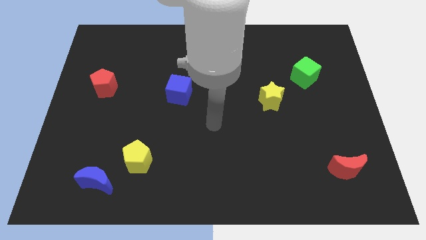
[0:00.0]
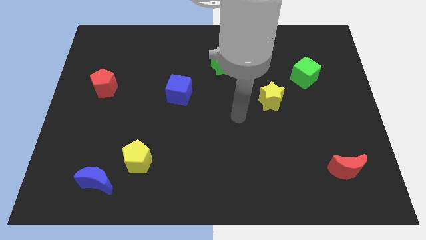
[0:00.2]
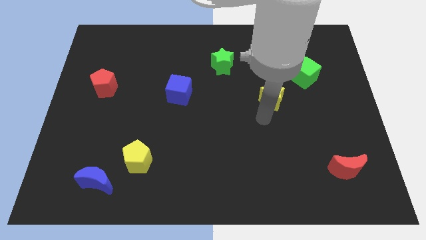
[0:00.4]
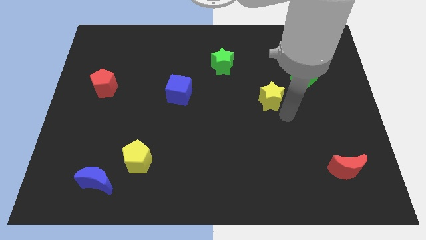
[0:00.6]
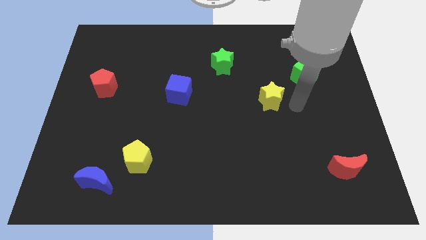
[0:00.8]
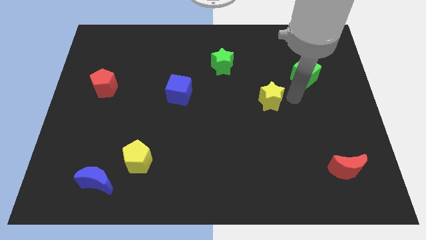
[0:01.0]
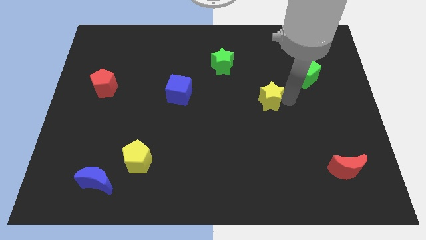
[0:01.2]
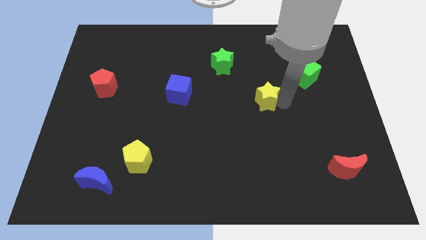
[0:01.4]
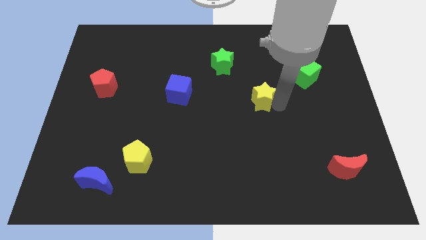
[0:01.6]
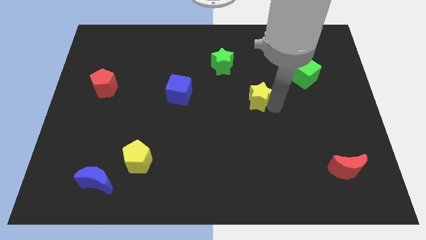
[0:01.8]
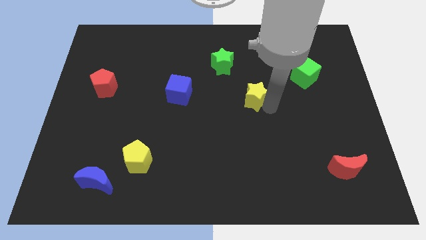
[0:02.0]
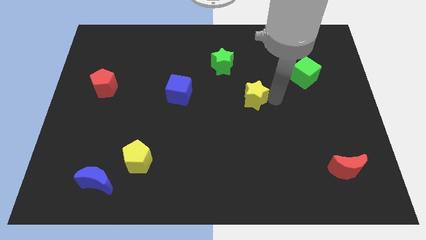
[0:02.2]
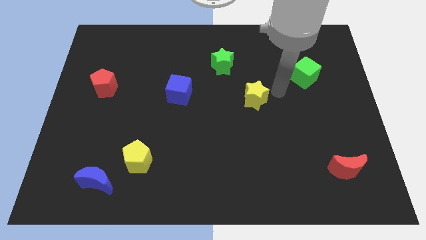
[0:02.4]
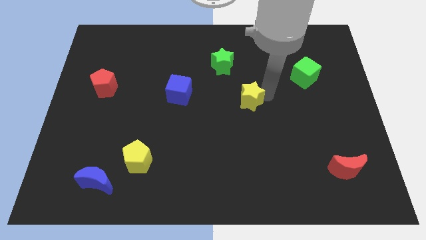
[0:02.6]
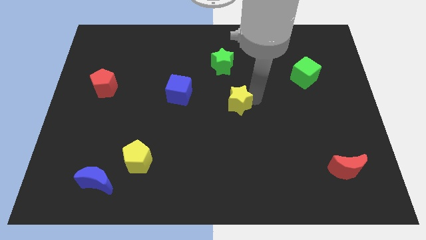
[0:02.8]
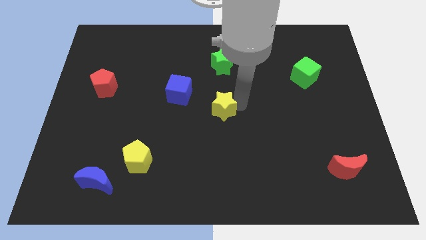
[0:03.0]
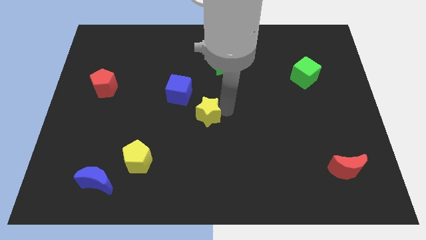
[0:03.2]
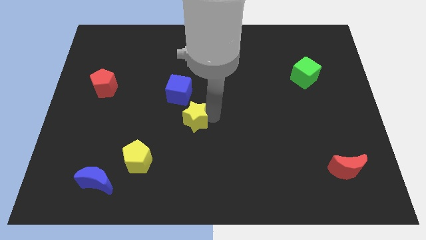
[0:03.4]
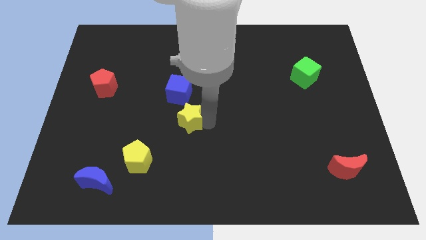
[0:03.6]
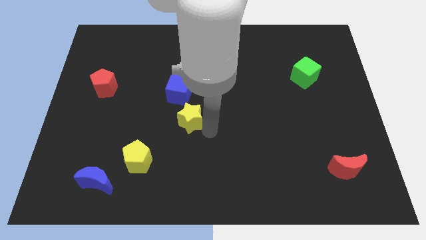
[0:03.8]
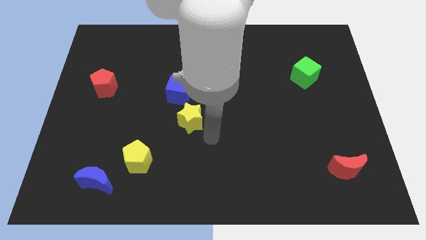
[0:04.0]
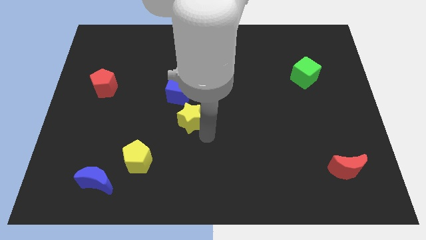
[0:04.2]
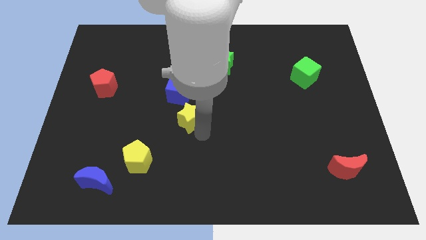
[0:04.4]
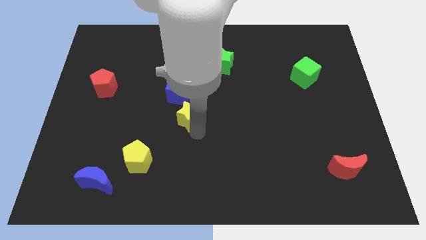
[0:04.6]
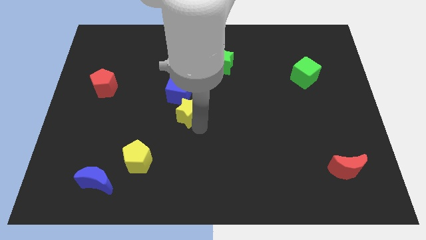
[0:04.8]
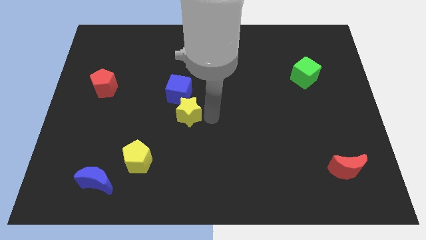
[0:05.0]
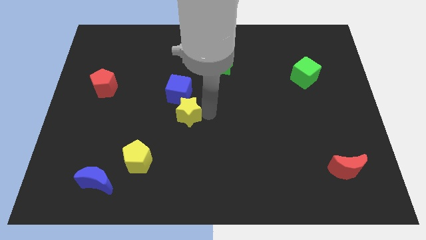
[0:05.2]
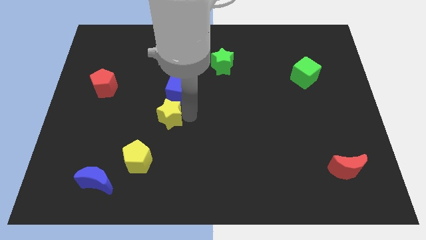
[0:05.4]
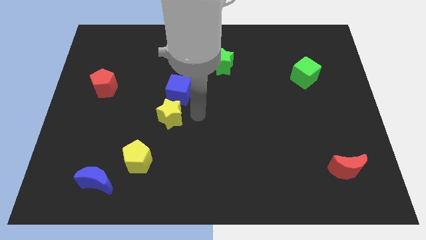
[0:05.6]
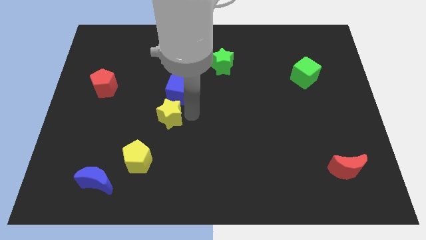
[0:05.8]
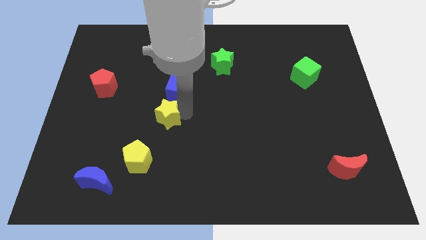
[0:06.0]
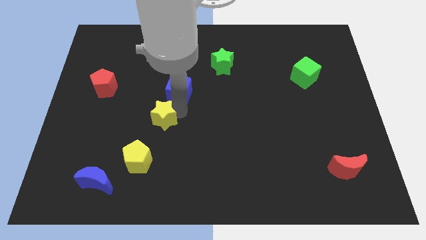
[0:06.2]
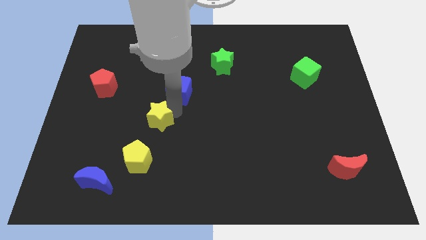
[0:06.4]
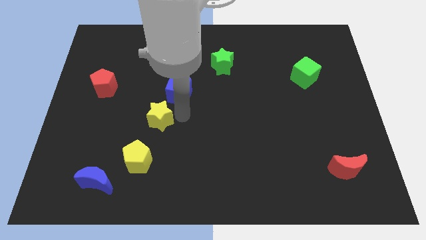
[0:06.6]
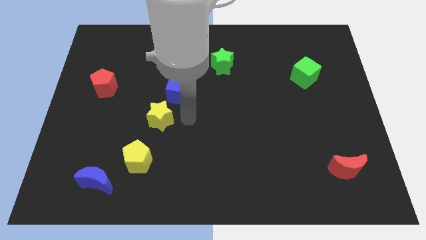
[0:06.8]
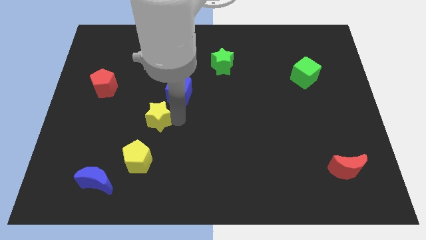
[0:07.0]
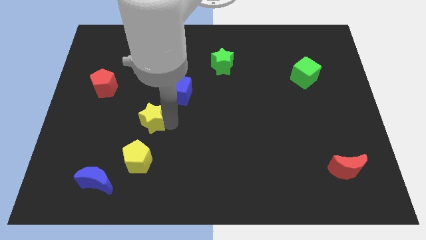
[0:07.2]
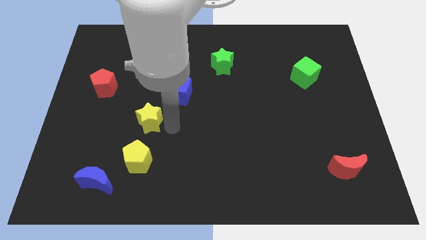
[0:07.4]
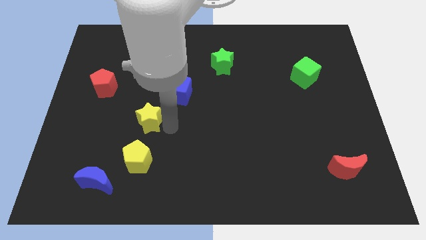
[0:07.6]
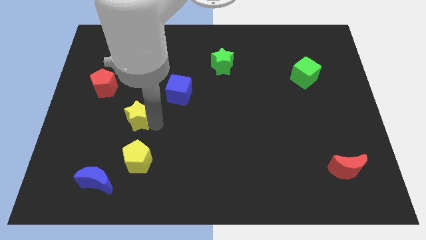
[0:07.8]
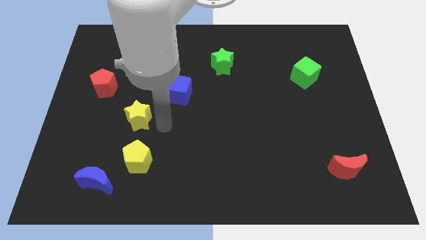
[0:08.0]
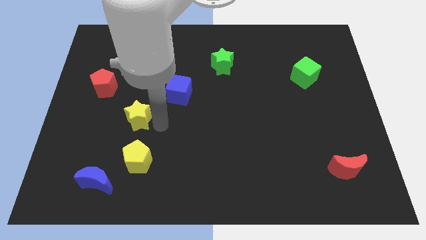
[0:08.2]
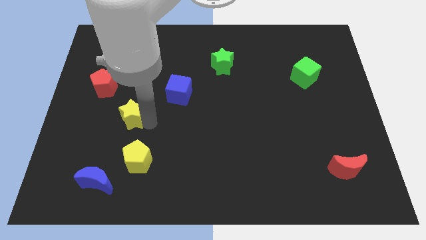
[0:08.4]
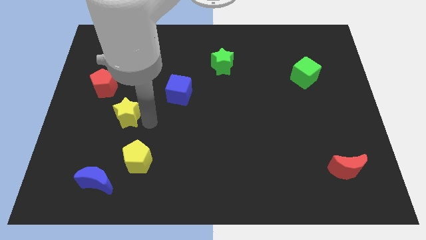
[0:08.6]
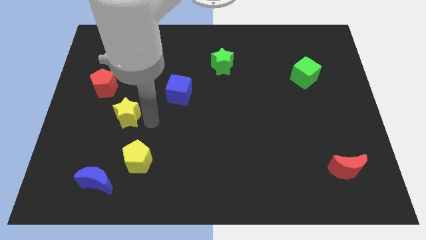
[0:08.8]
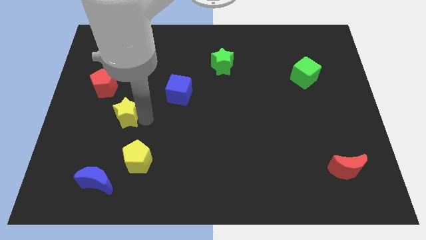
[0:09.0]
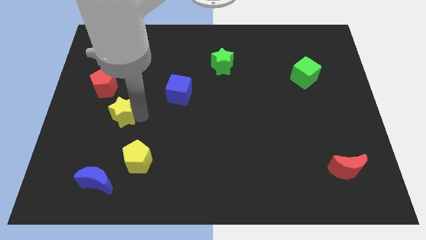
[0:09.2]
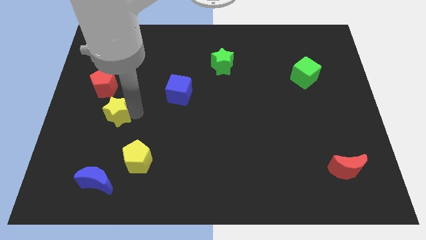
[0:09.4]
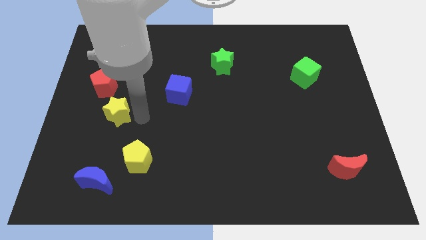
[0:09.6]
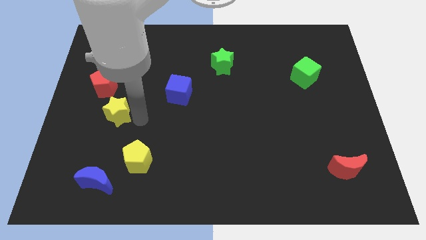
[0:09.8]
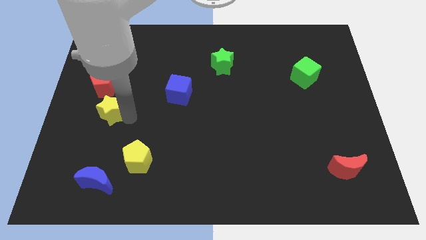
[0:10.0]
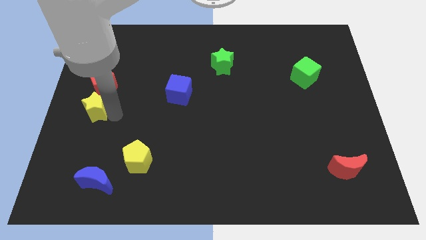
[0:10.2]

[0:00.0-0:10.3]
put the yellow star to the left side of the board

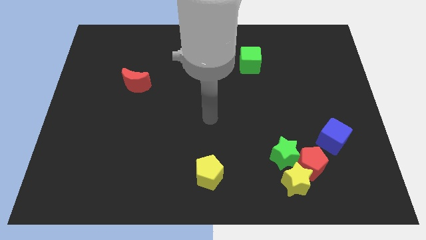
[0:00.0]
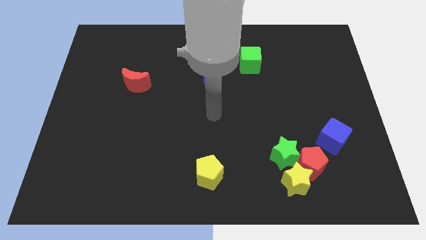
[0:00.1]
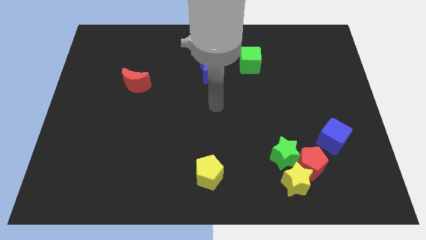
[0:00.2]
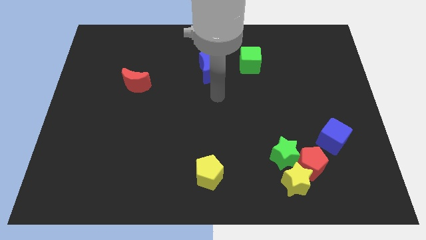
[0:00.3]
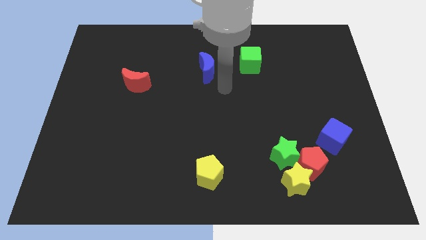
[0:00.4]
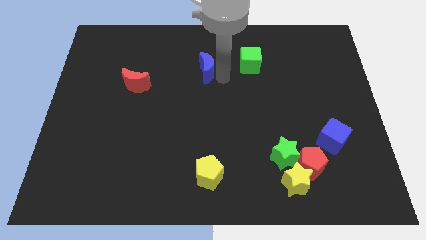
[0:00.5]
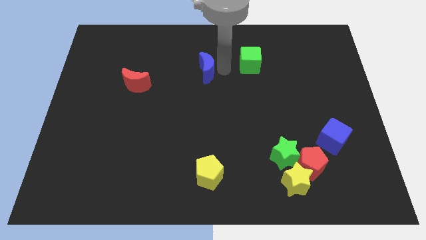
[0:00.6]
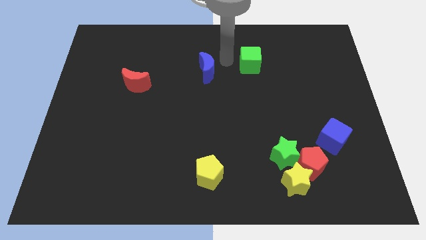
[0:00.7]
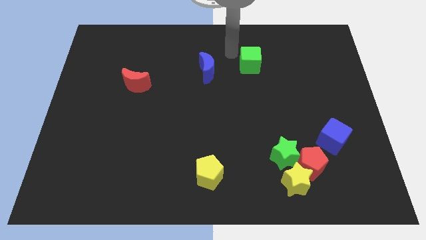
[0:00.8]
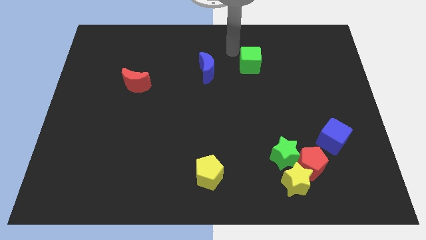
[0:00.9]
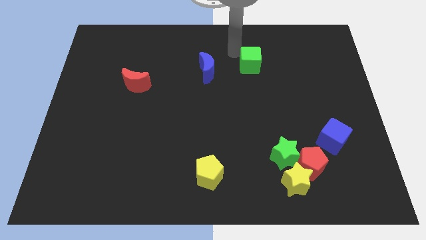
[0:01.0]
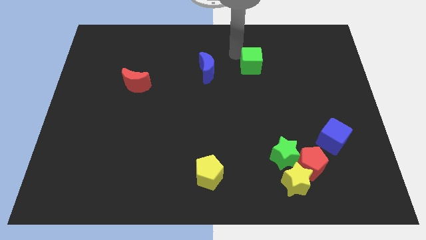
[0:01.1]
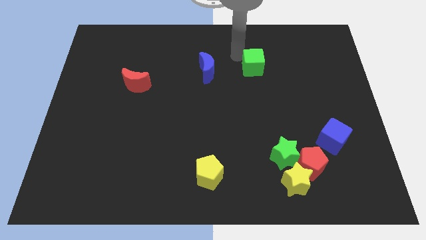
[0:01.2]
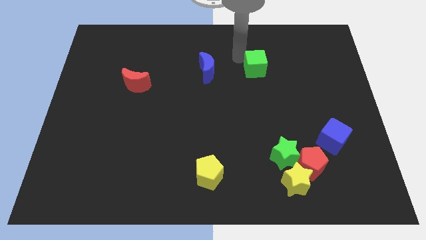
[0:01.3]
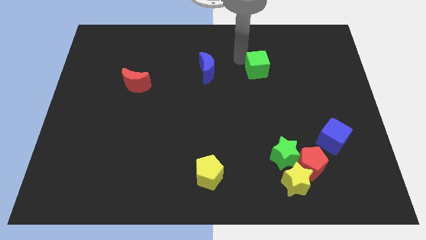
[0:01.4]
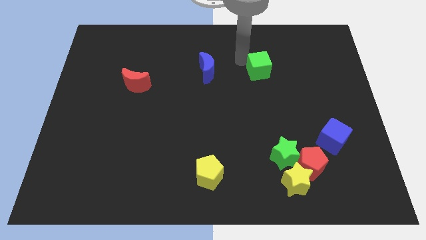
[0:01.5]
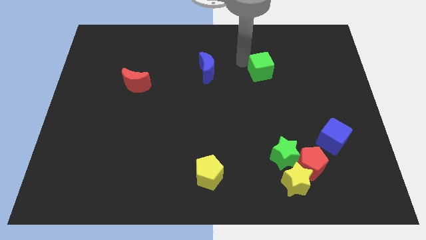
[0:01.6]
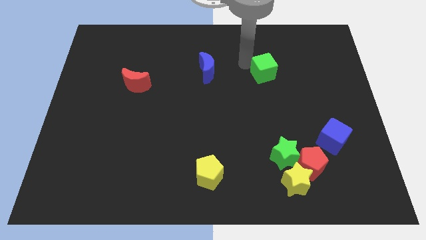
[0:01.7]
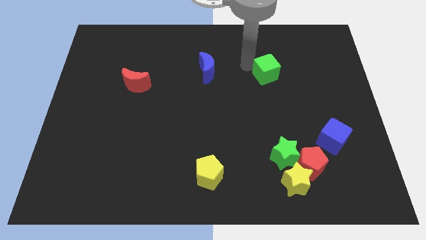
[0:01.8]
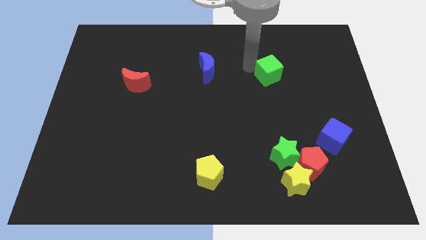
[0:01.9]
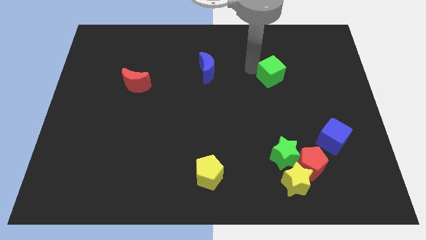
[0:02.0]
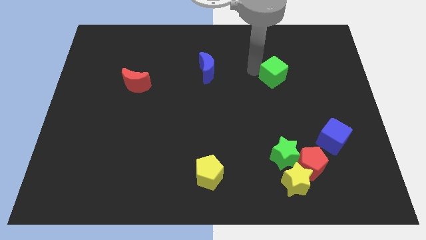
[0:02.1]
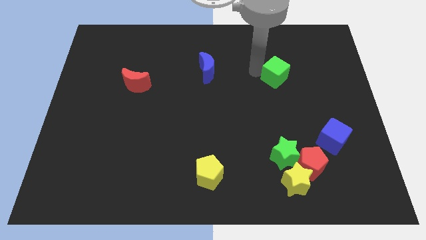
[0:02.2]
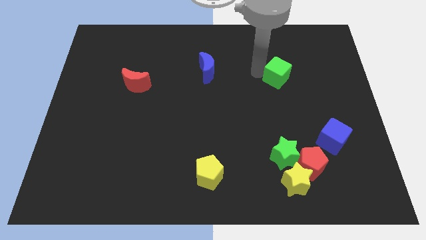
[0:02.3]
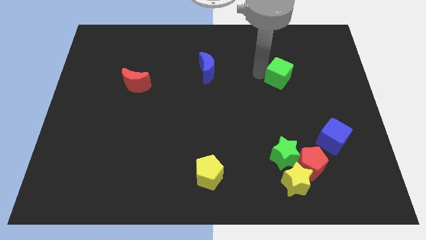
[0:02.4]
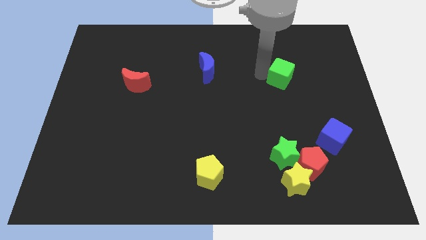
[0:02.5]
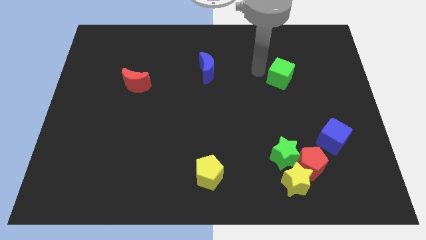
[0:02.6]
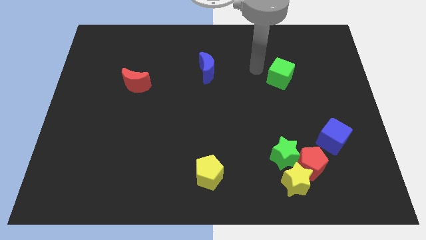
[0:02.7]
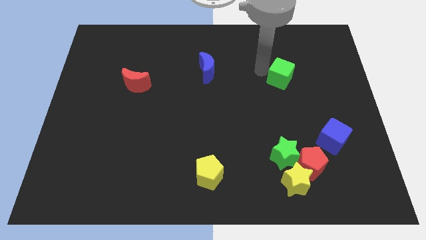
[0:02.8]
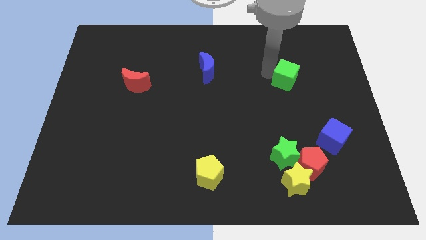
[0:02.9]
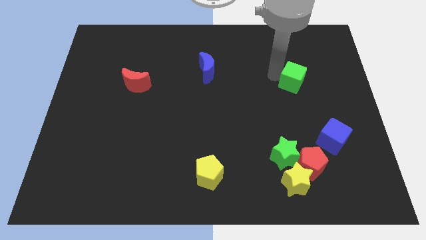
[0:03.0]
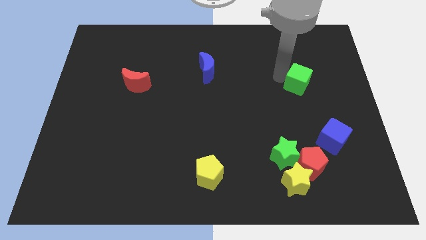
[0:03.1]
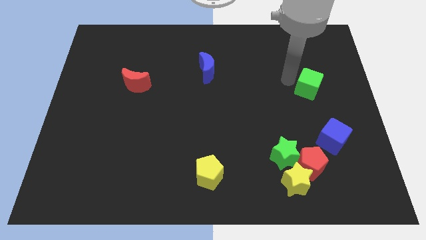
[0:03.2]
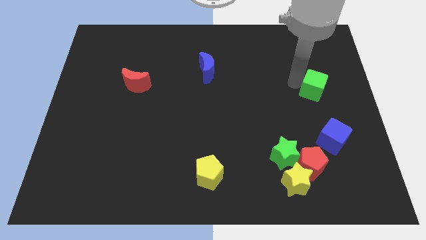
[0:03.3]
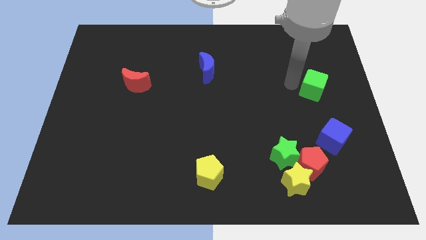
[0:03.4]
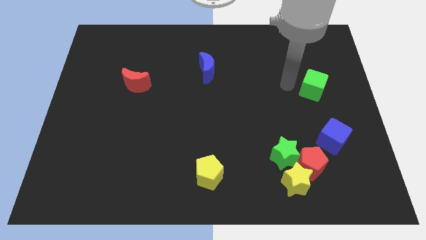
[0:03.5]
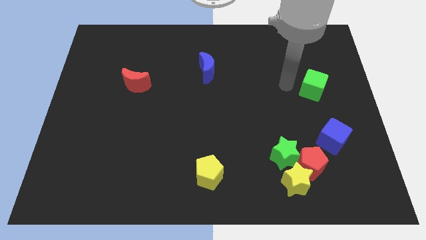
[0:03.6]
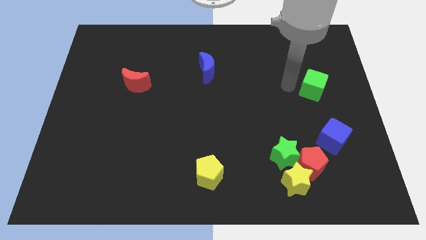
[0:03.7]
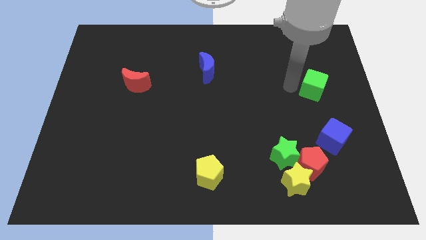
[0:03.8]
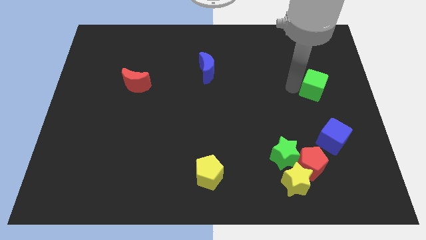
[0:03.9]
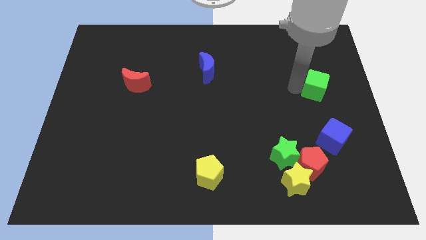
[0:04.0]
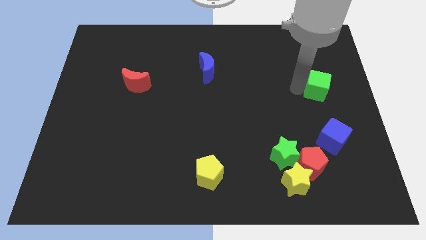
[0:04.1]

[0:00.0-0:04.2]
push the green cube to the right side of the board
